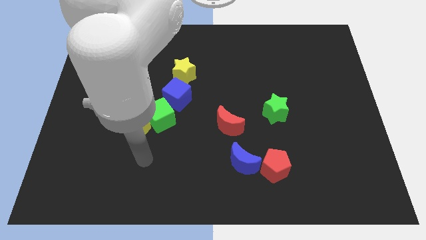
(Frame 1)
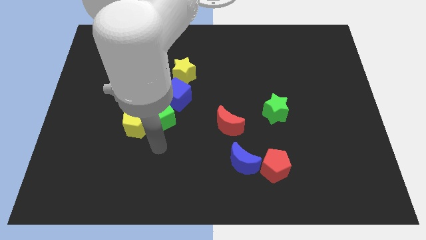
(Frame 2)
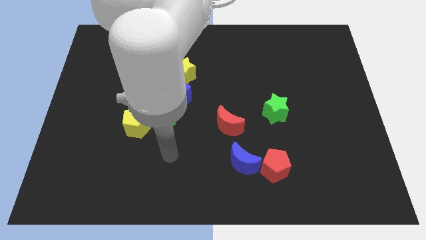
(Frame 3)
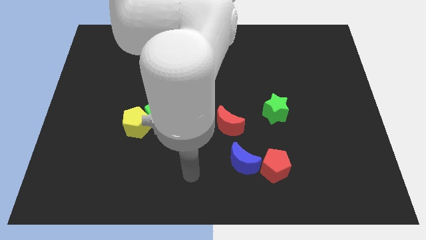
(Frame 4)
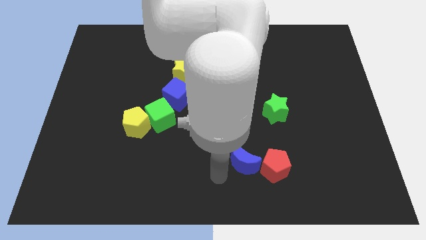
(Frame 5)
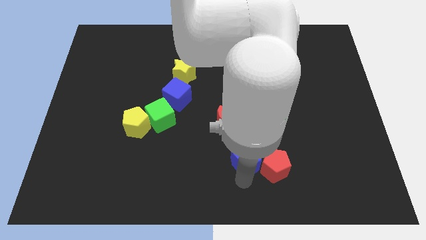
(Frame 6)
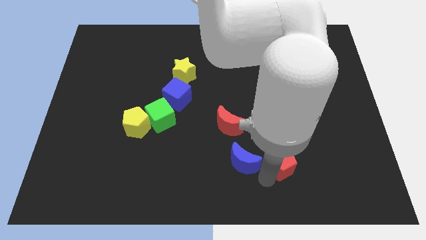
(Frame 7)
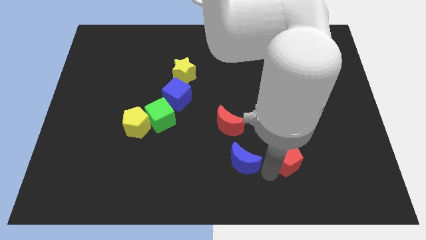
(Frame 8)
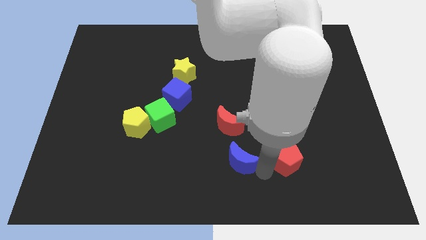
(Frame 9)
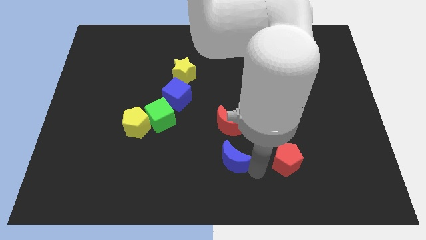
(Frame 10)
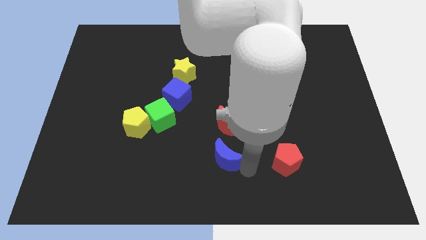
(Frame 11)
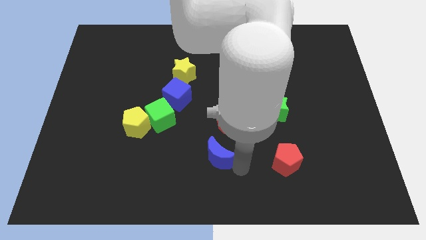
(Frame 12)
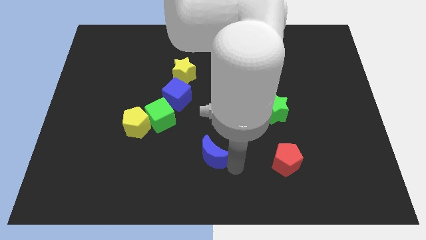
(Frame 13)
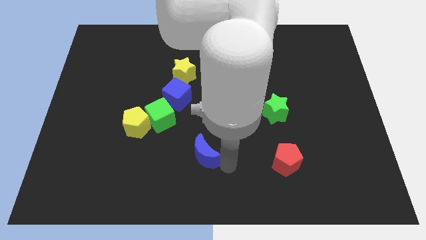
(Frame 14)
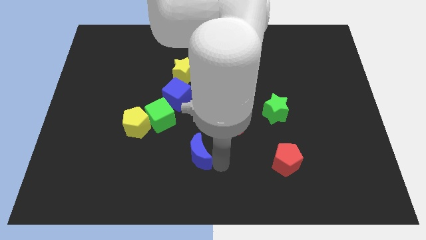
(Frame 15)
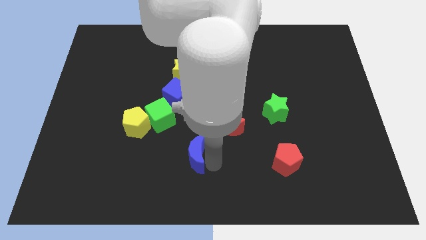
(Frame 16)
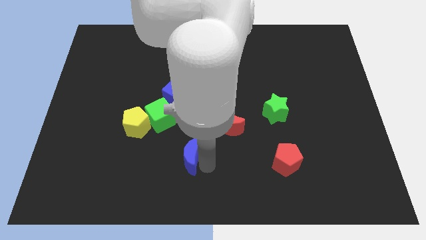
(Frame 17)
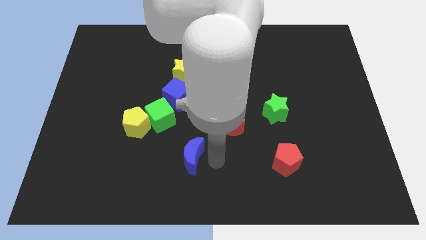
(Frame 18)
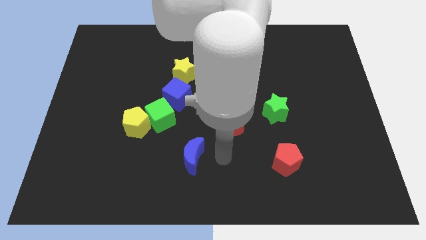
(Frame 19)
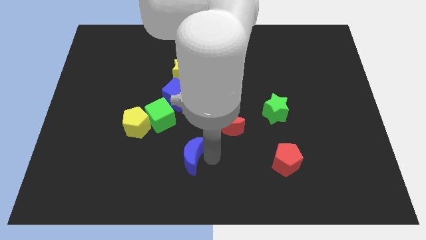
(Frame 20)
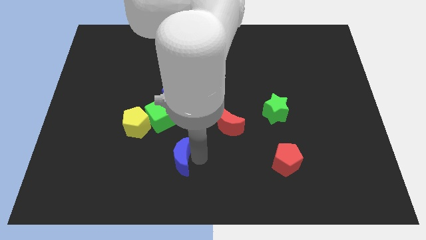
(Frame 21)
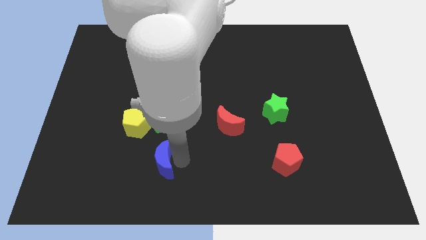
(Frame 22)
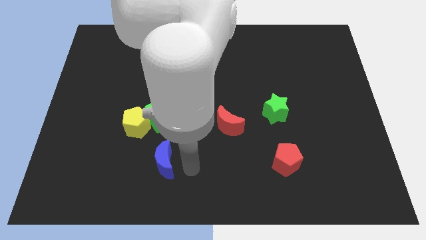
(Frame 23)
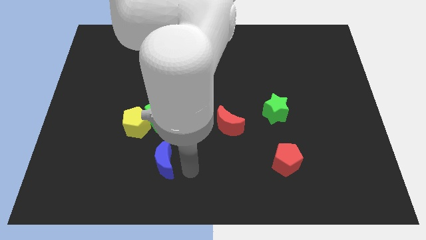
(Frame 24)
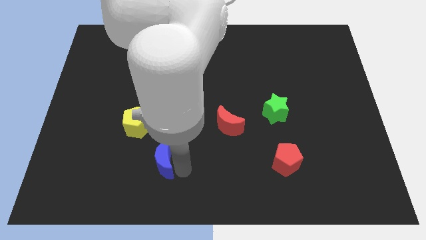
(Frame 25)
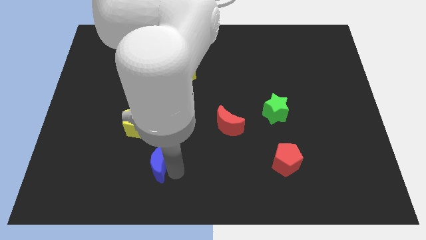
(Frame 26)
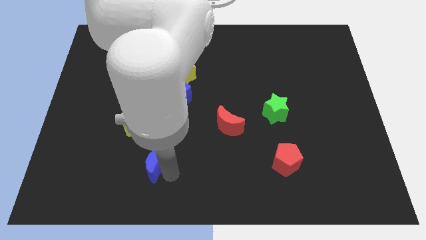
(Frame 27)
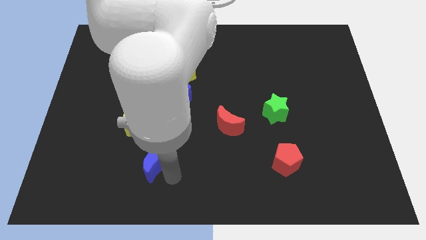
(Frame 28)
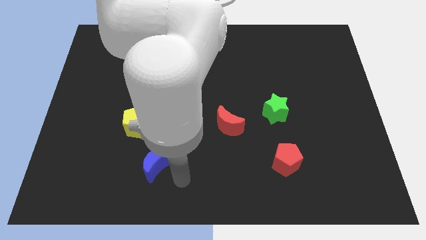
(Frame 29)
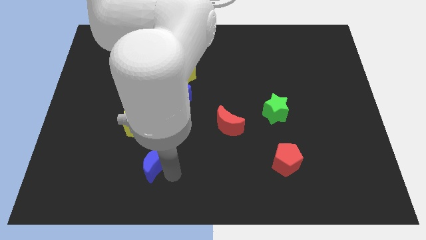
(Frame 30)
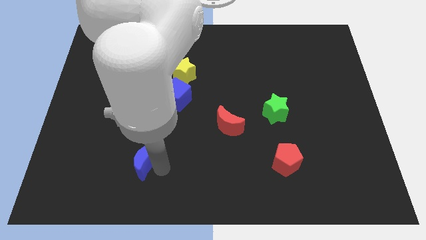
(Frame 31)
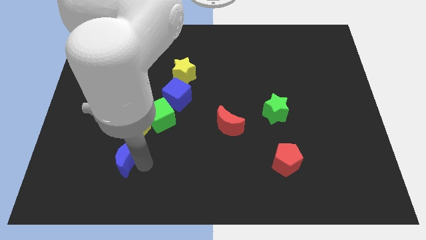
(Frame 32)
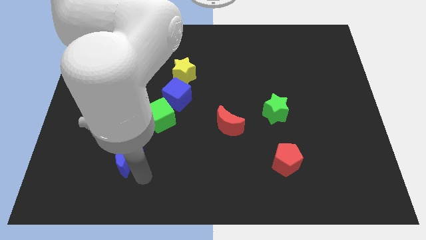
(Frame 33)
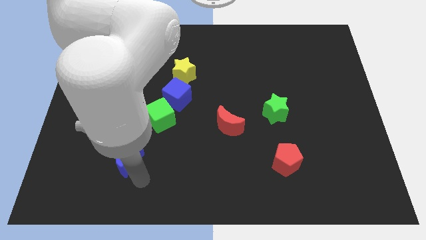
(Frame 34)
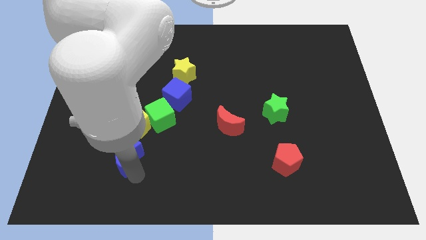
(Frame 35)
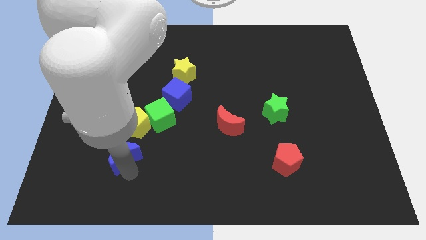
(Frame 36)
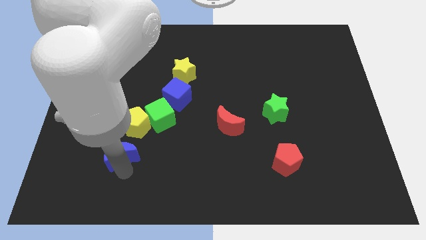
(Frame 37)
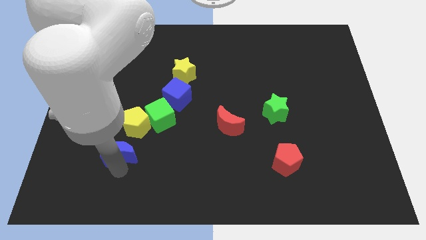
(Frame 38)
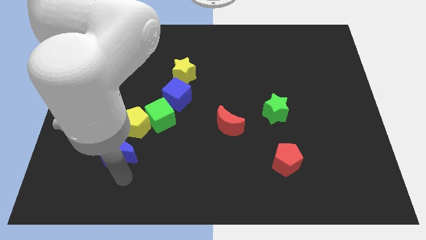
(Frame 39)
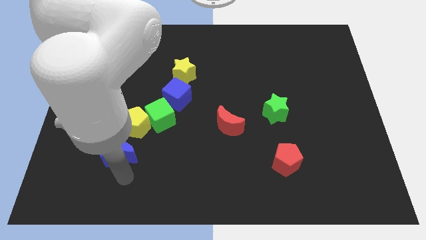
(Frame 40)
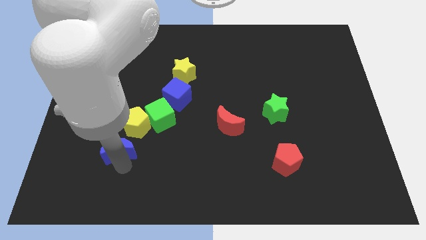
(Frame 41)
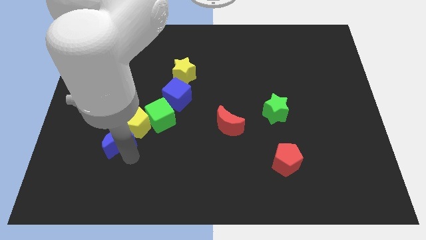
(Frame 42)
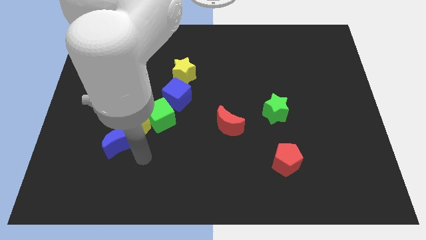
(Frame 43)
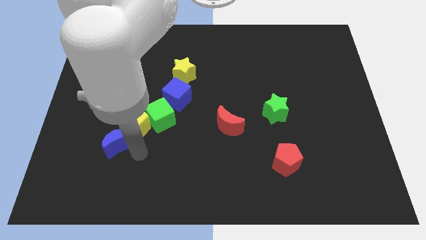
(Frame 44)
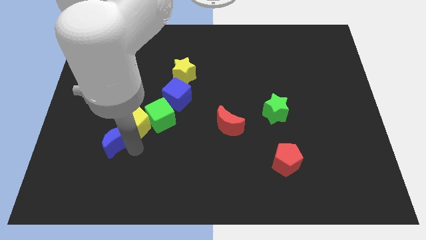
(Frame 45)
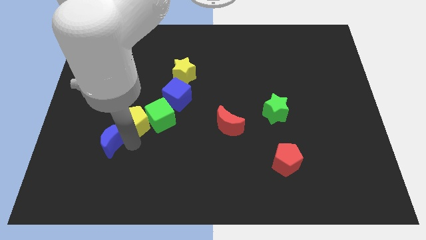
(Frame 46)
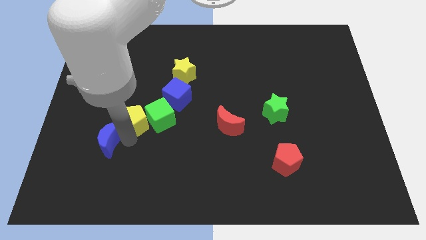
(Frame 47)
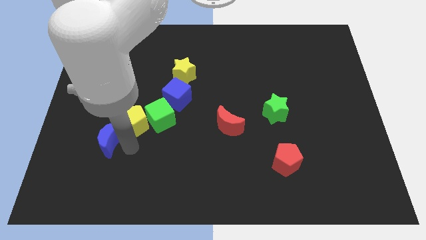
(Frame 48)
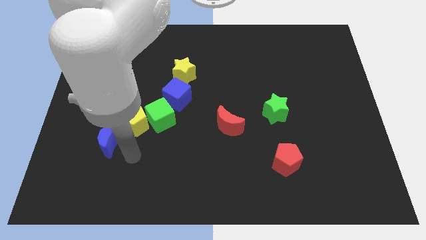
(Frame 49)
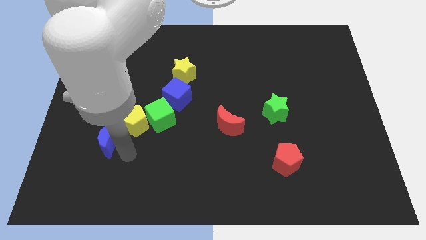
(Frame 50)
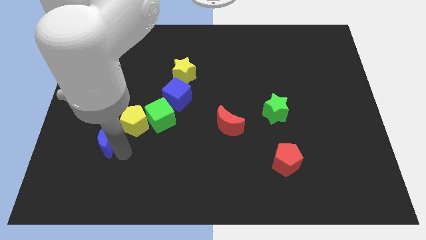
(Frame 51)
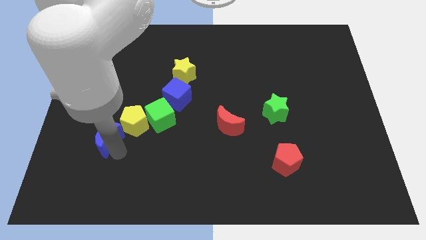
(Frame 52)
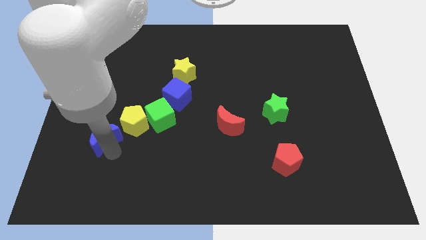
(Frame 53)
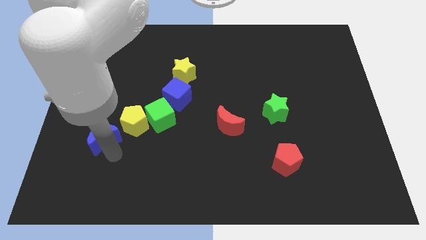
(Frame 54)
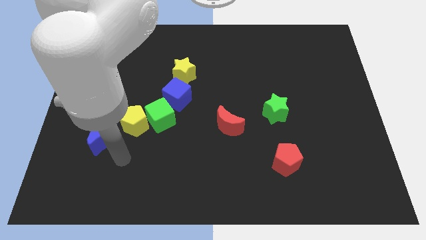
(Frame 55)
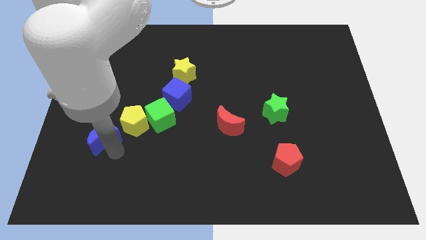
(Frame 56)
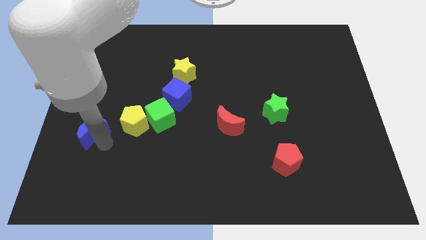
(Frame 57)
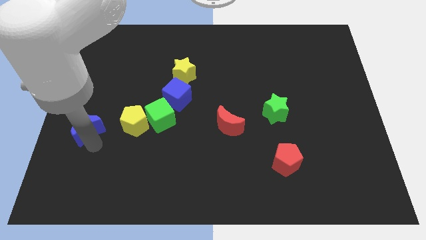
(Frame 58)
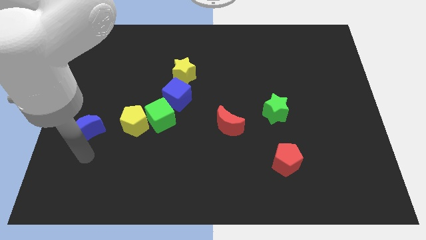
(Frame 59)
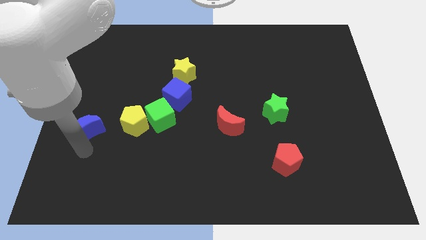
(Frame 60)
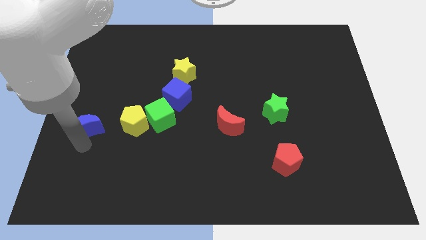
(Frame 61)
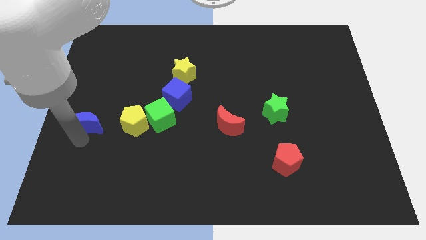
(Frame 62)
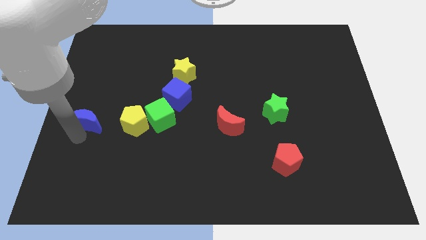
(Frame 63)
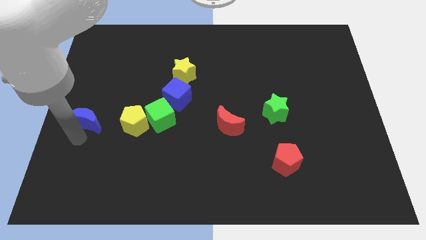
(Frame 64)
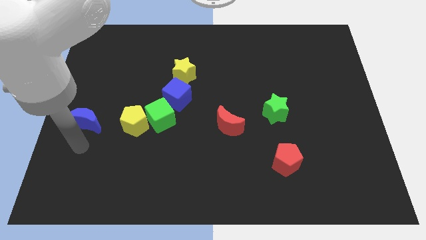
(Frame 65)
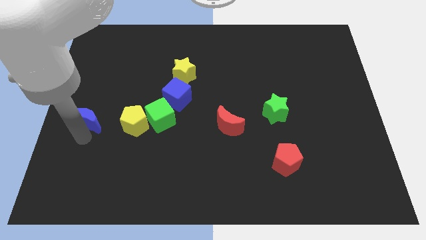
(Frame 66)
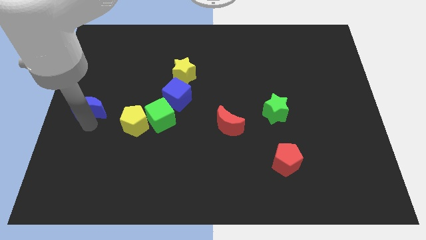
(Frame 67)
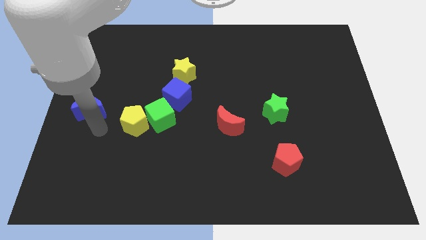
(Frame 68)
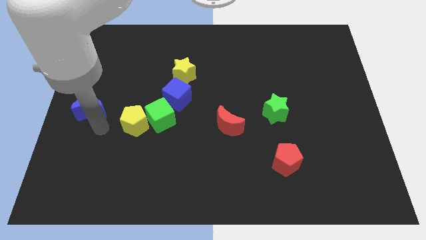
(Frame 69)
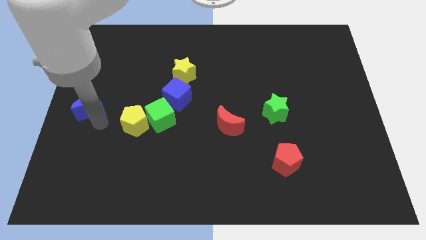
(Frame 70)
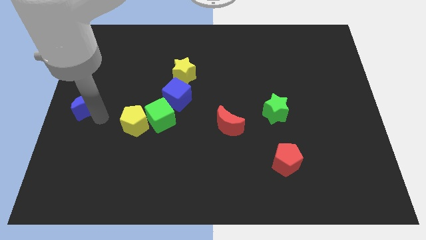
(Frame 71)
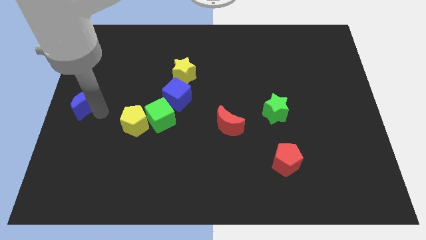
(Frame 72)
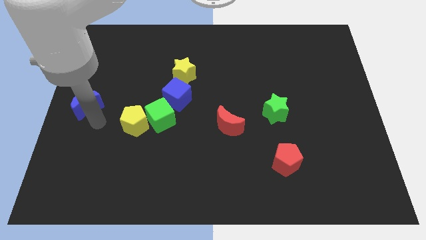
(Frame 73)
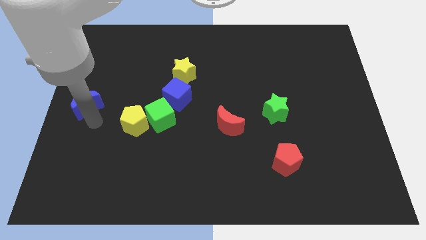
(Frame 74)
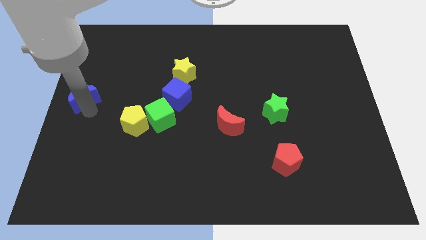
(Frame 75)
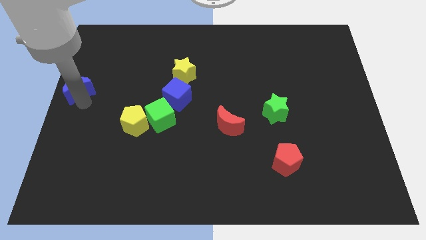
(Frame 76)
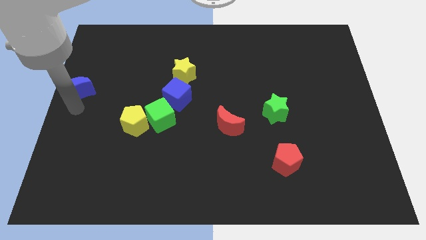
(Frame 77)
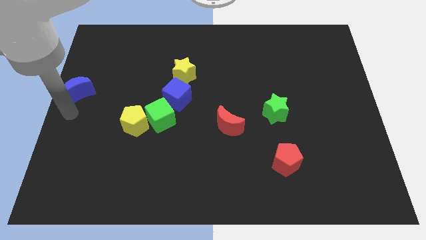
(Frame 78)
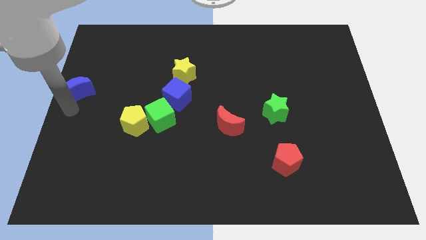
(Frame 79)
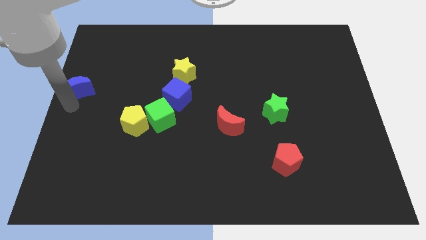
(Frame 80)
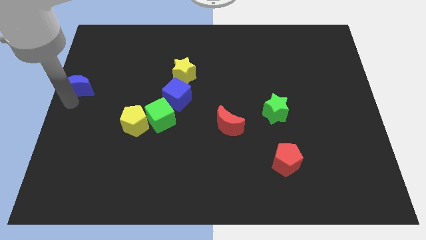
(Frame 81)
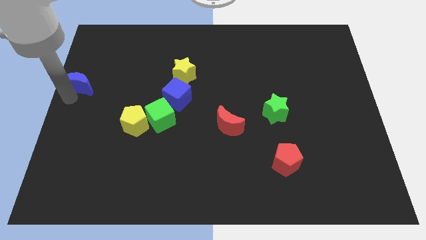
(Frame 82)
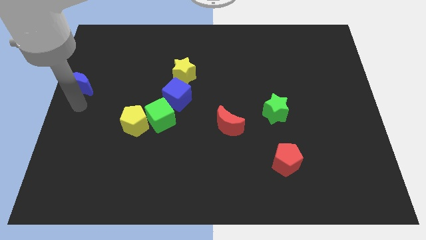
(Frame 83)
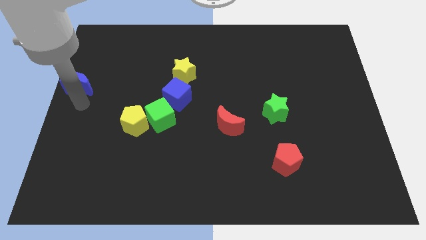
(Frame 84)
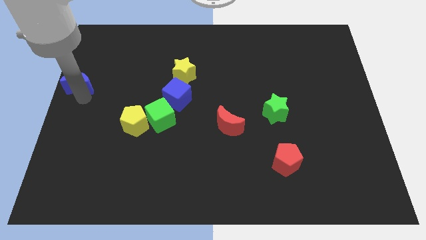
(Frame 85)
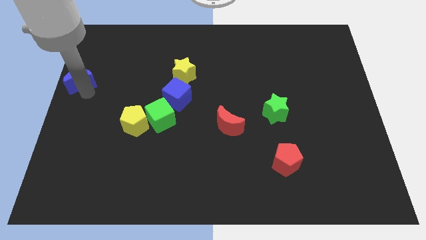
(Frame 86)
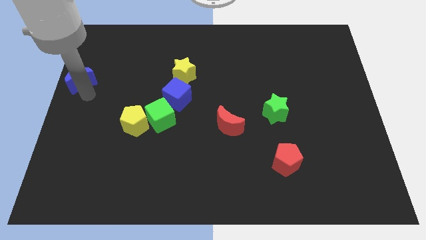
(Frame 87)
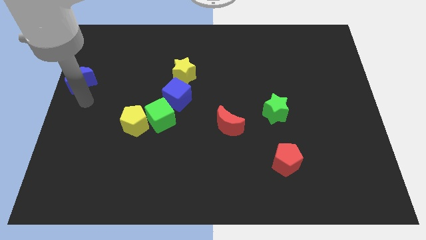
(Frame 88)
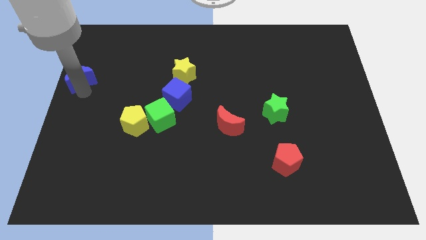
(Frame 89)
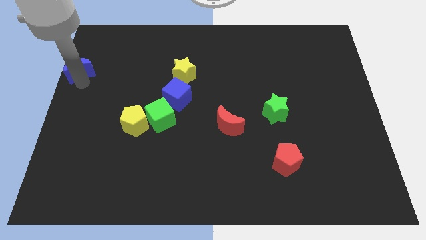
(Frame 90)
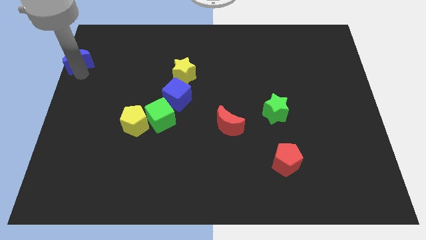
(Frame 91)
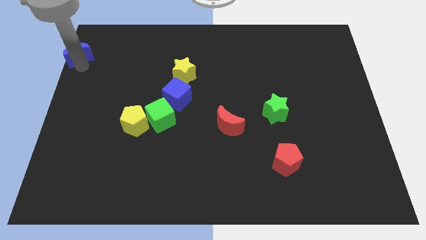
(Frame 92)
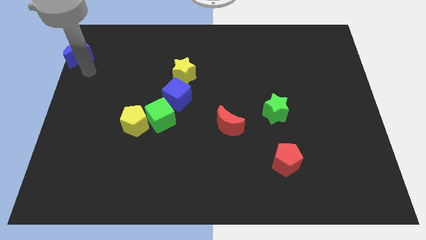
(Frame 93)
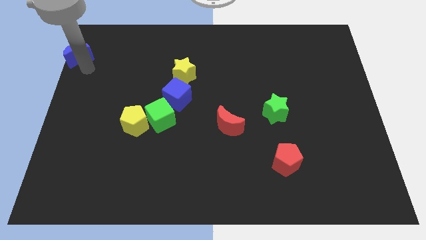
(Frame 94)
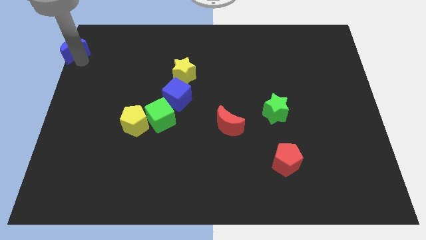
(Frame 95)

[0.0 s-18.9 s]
put the blue moon to the top left
